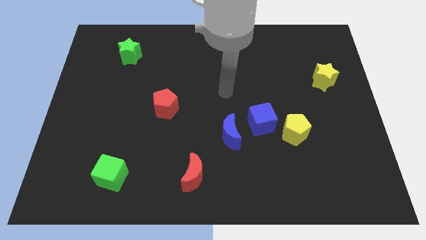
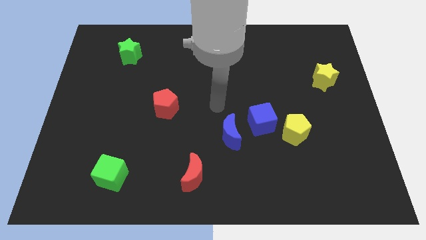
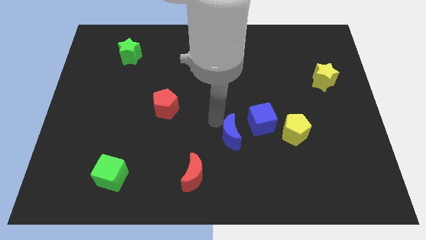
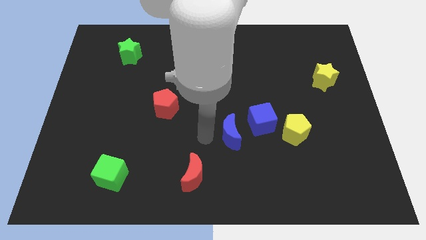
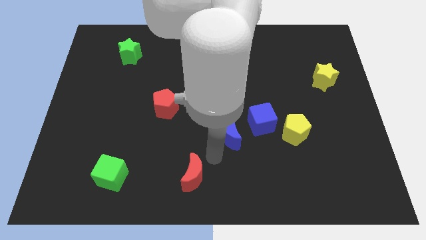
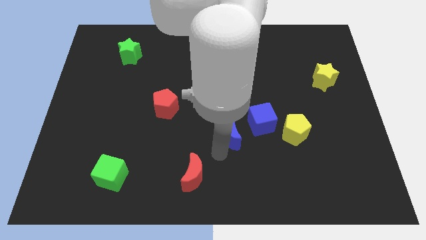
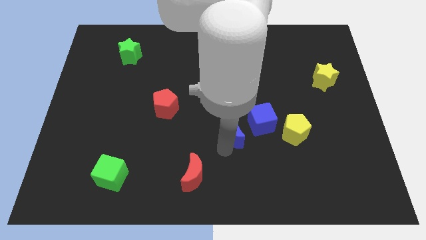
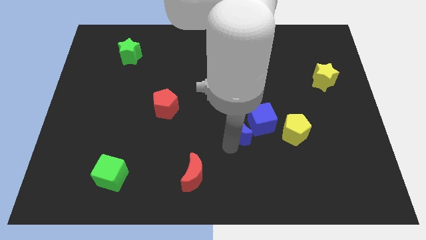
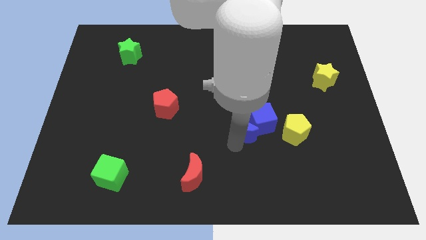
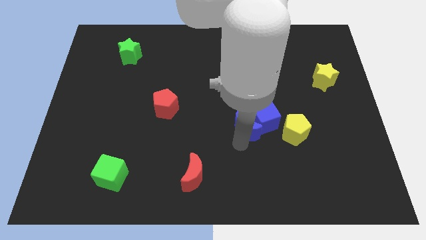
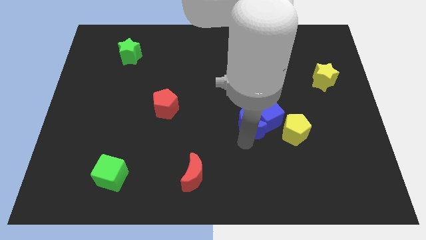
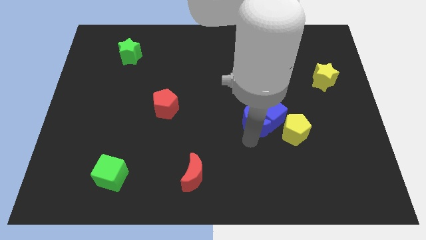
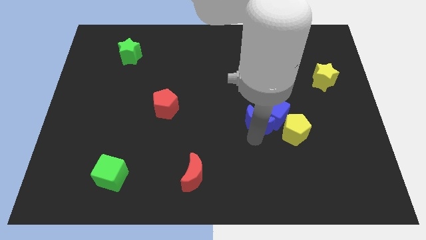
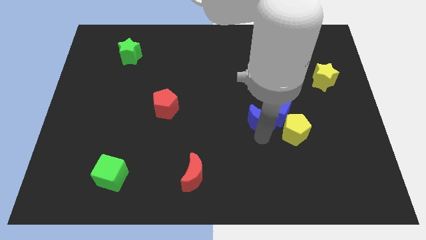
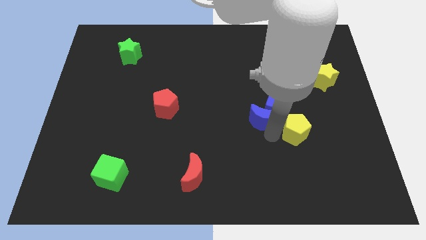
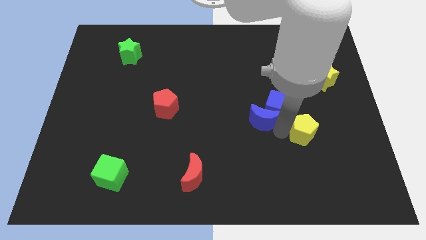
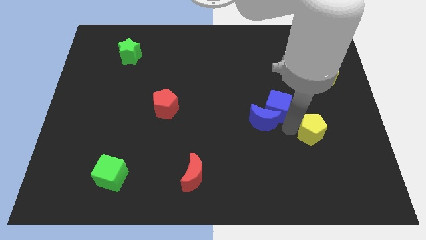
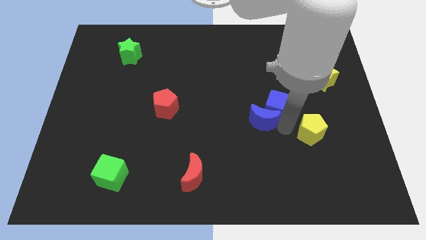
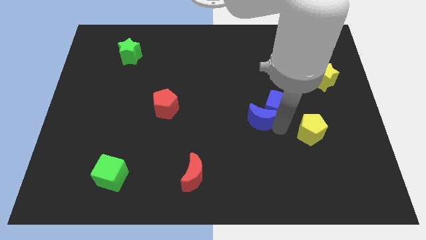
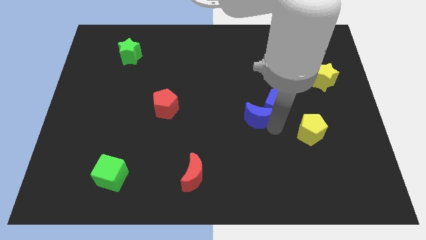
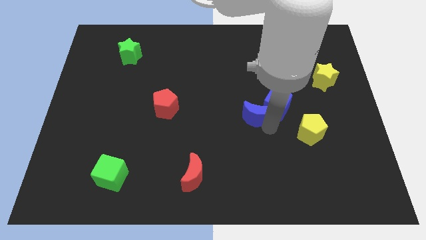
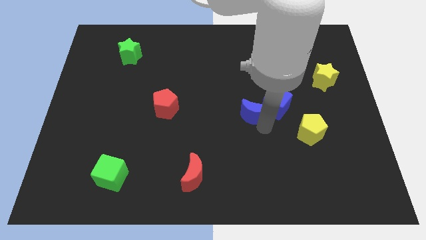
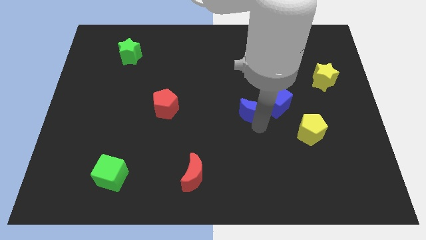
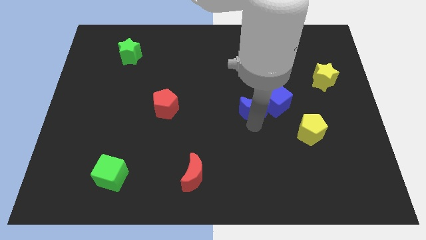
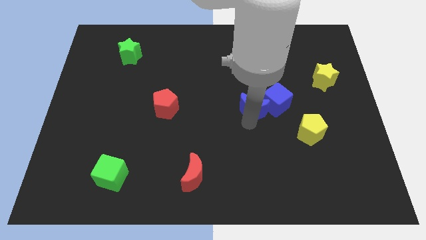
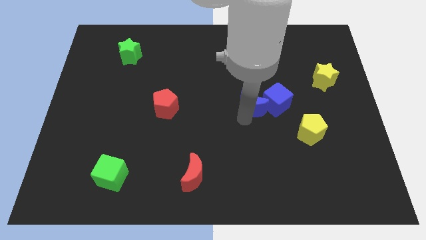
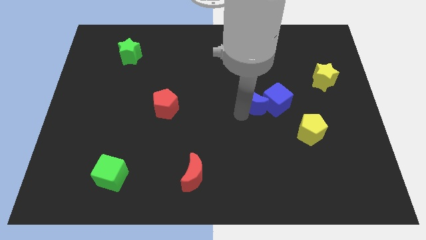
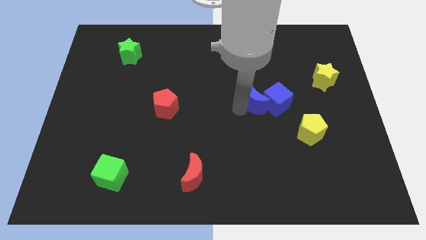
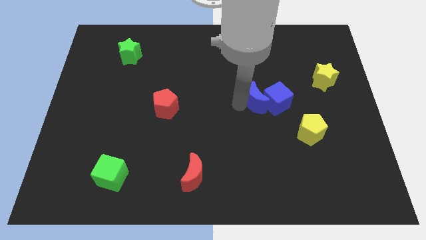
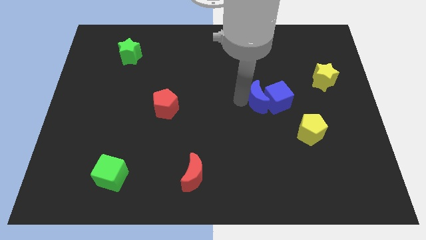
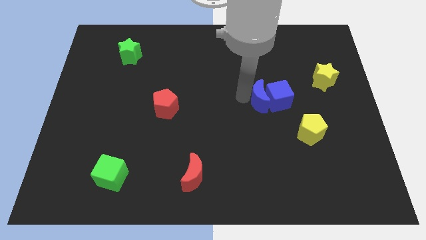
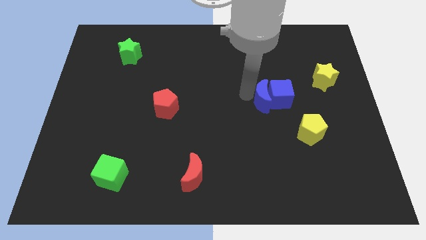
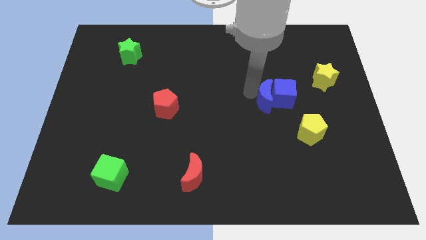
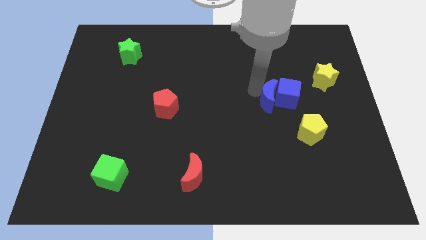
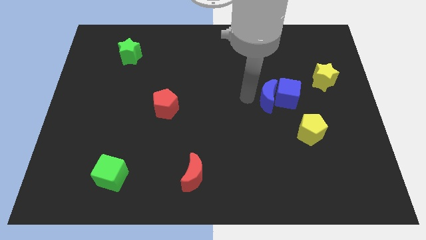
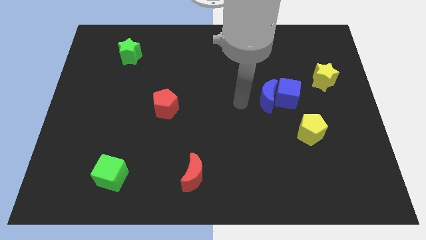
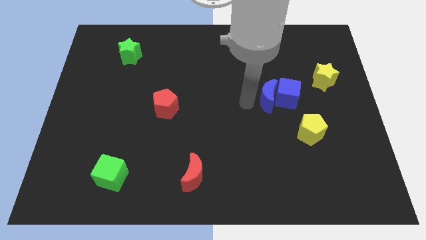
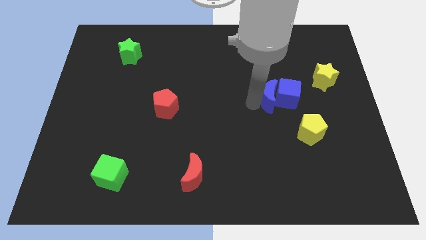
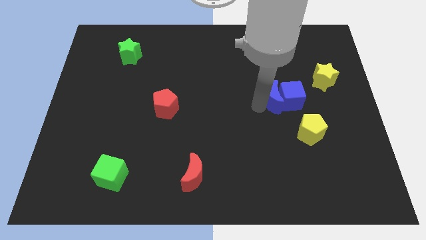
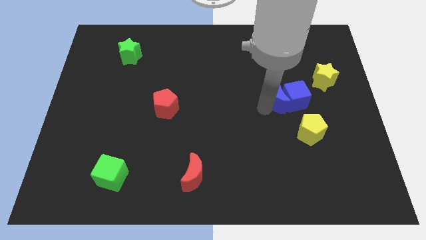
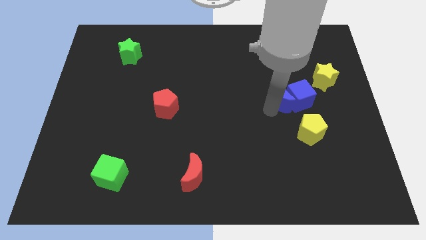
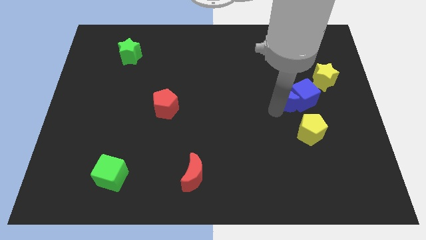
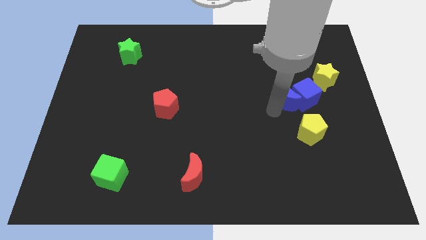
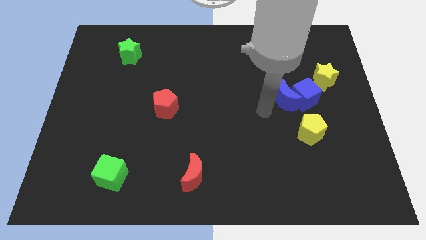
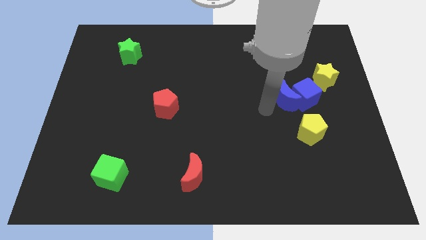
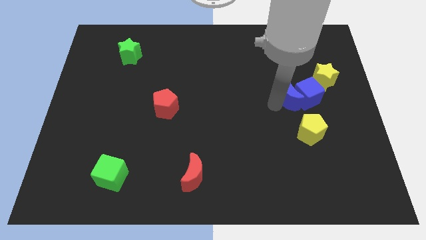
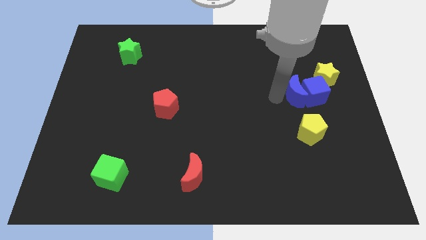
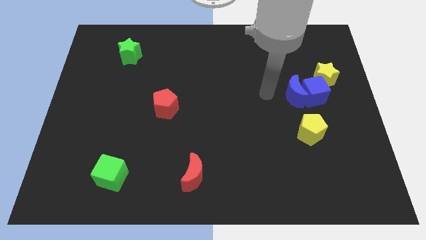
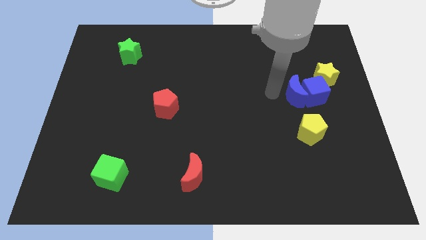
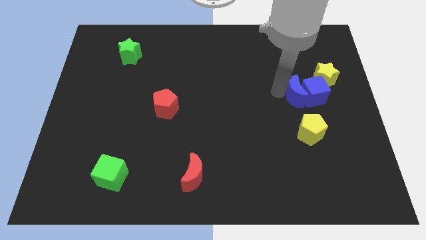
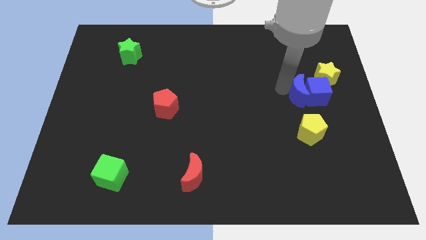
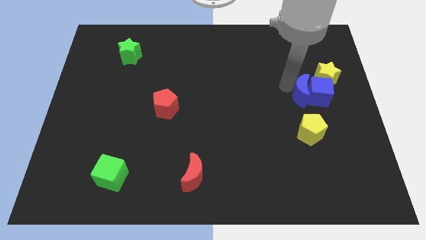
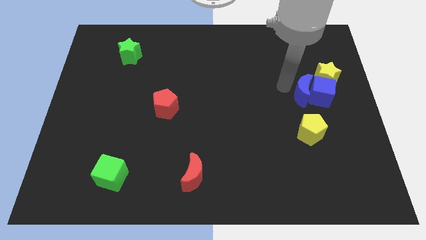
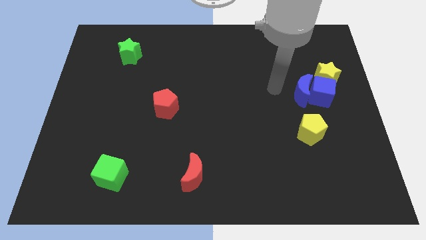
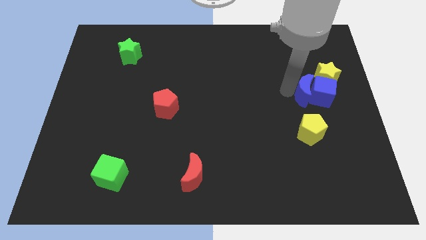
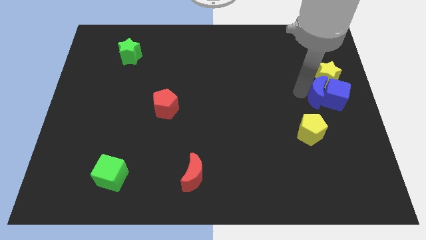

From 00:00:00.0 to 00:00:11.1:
slide the blue moon to the right side of the board

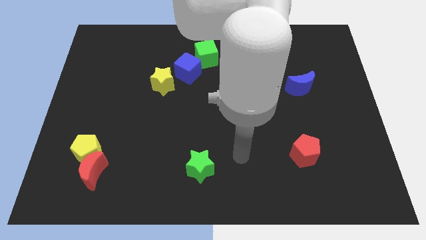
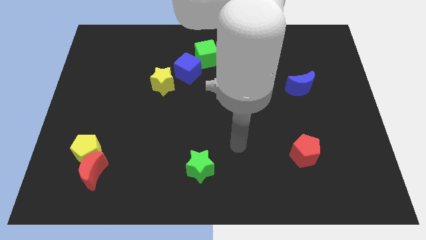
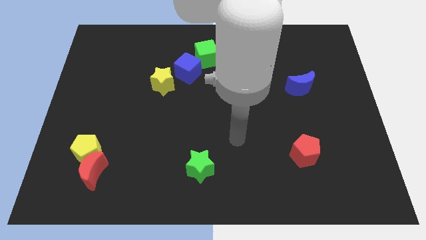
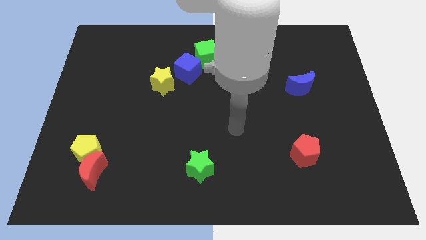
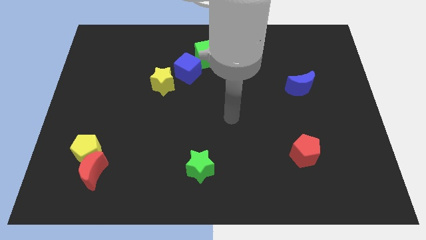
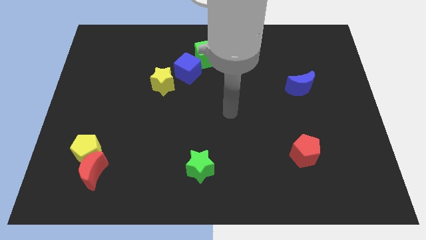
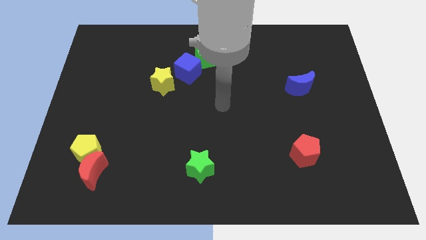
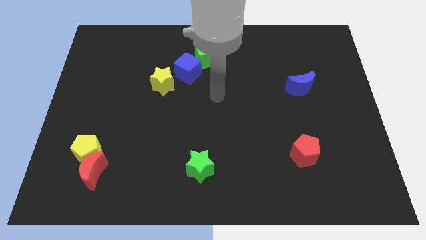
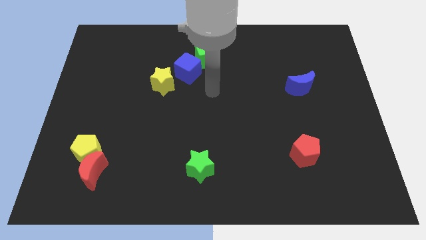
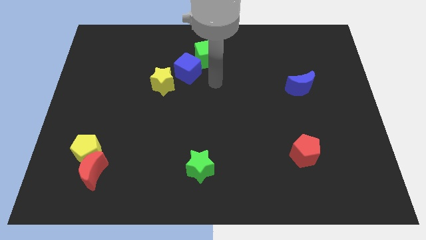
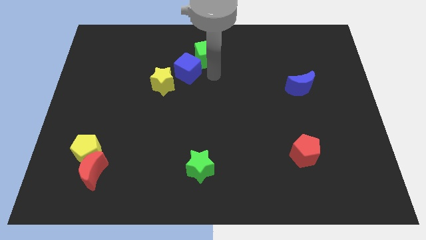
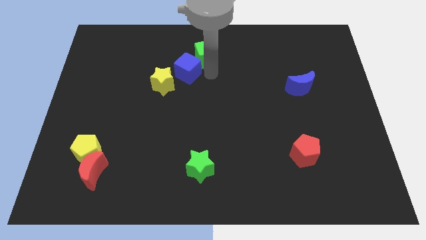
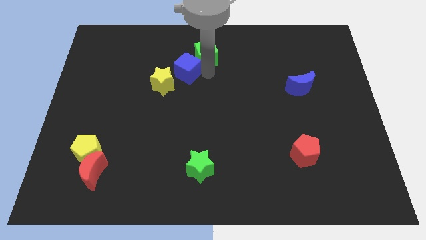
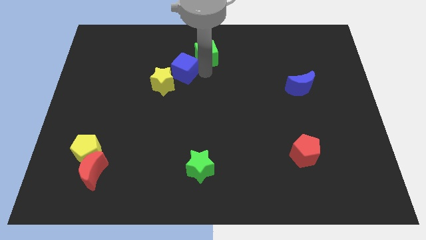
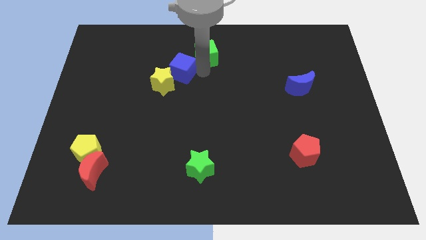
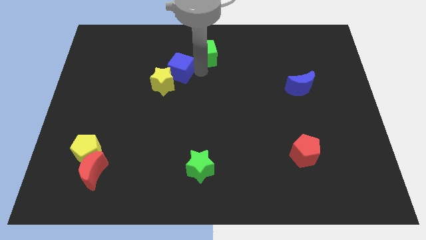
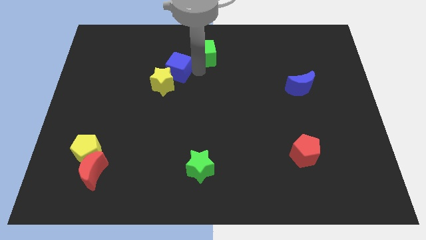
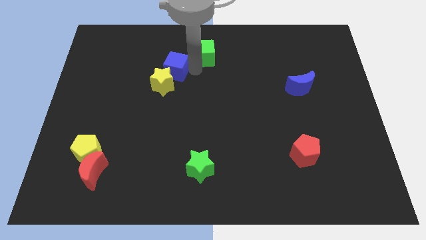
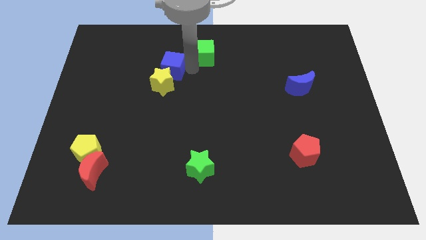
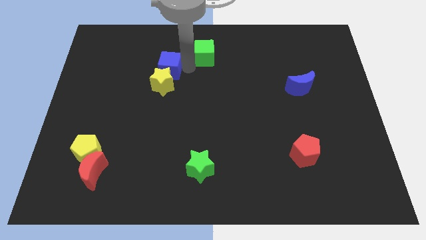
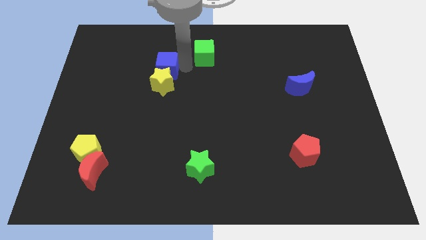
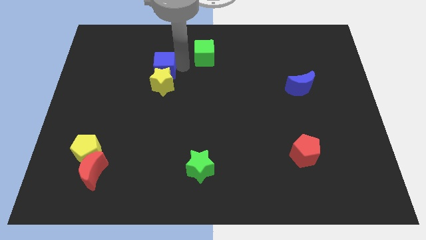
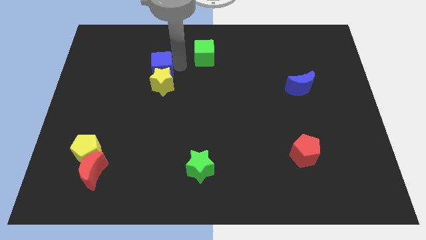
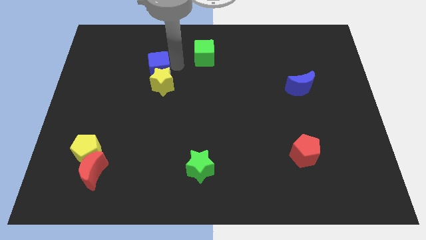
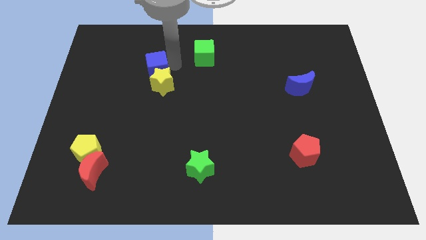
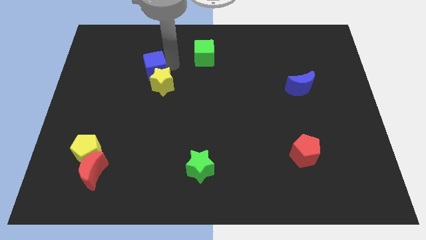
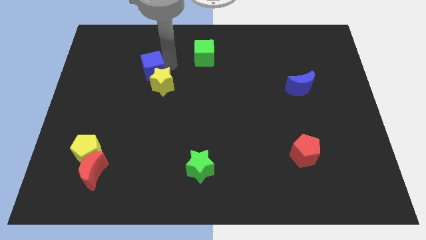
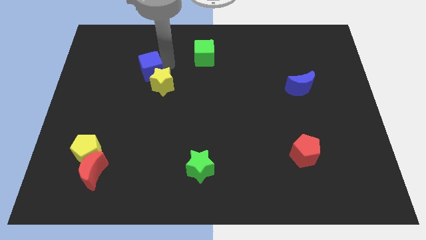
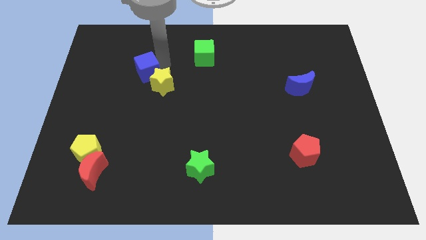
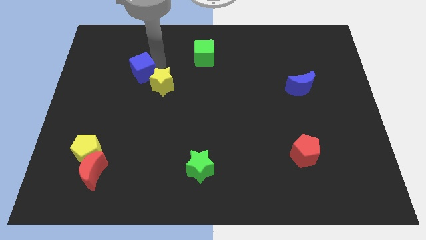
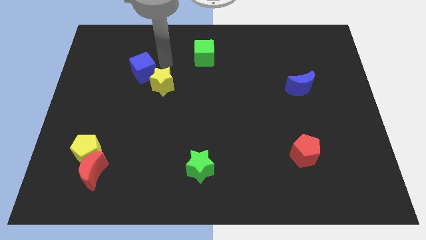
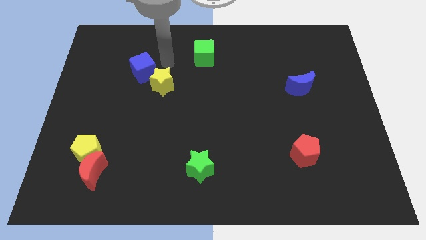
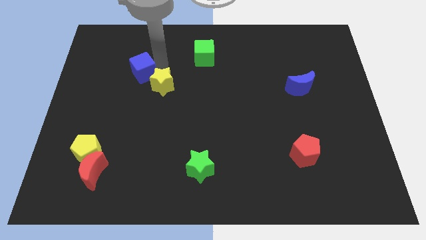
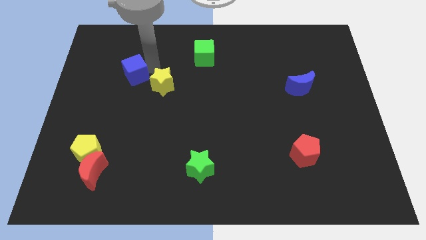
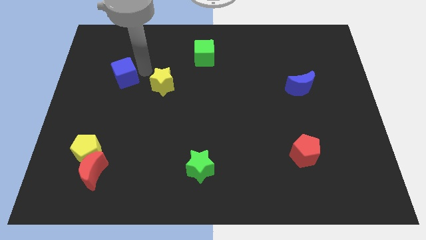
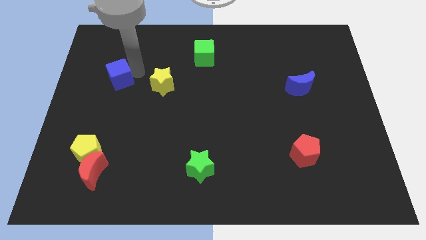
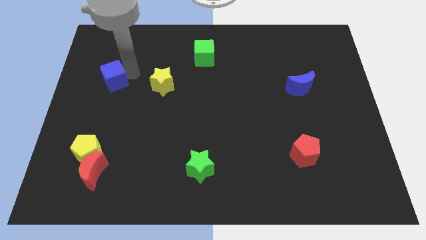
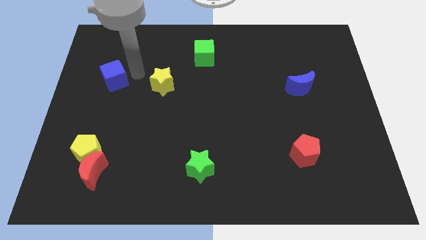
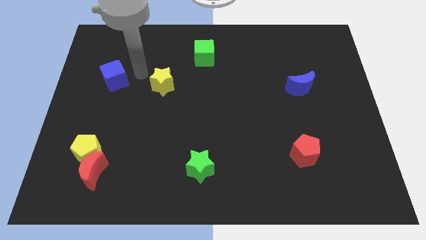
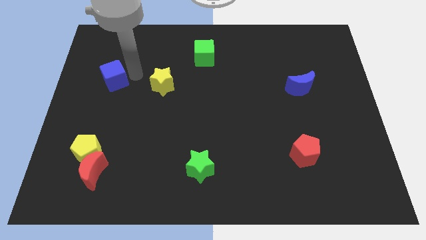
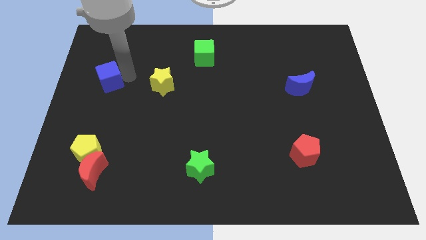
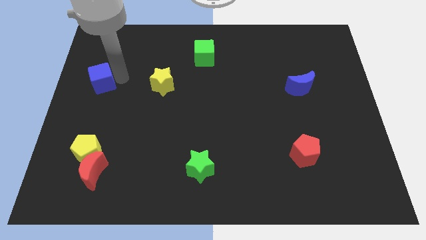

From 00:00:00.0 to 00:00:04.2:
slide the blue cube to the center left
